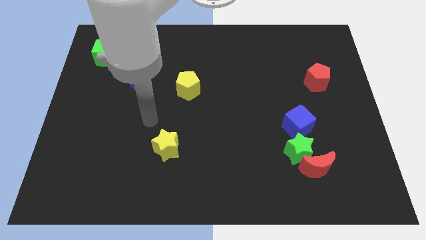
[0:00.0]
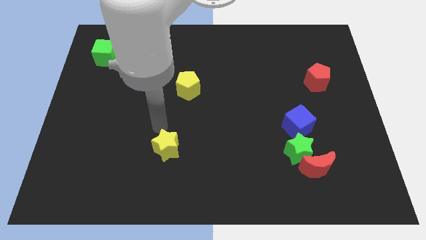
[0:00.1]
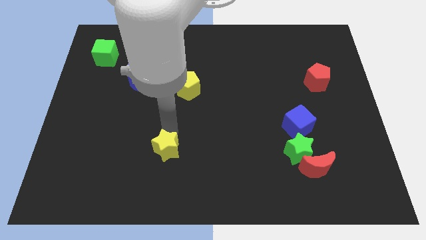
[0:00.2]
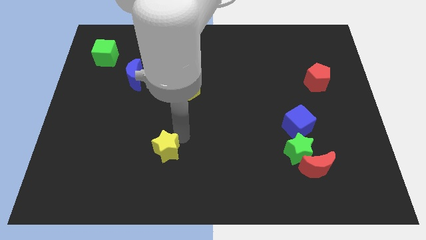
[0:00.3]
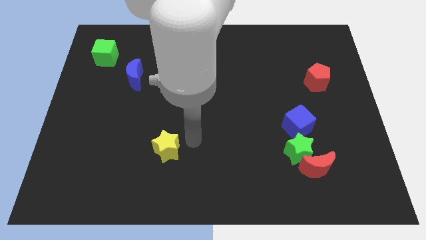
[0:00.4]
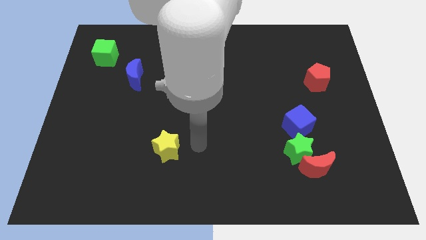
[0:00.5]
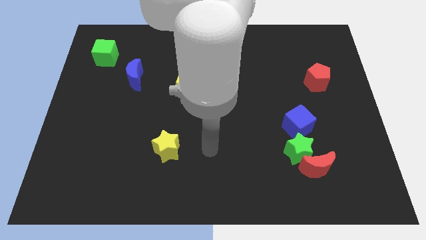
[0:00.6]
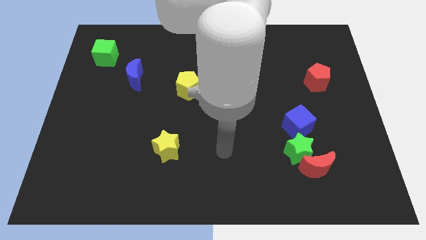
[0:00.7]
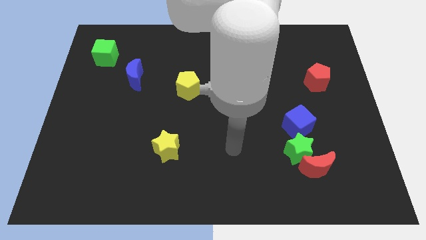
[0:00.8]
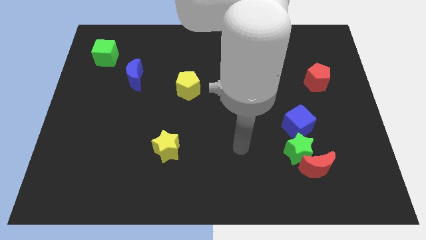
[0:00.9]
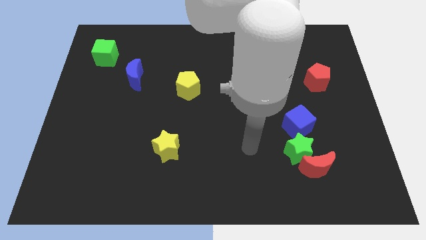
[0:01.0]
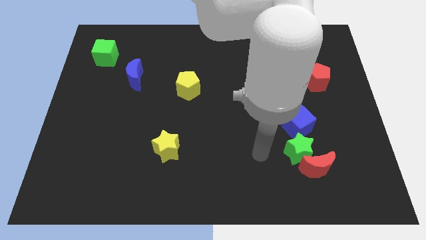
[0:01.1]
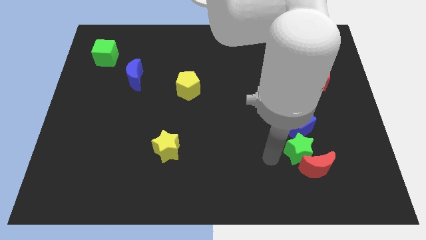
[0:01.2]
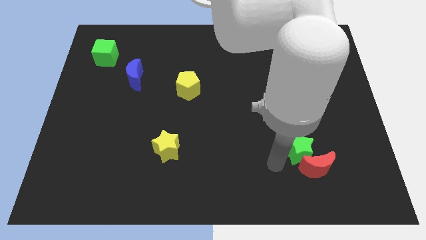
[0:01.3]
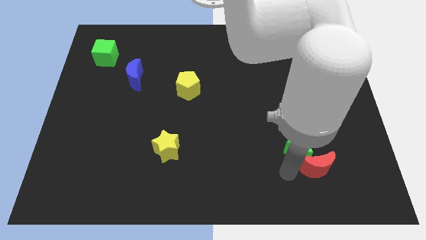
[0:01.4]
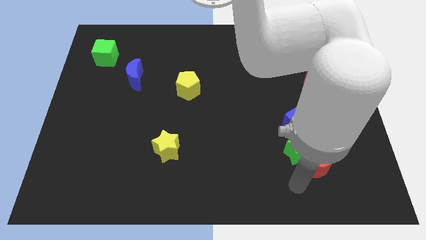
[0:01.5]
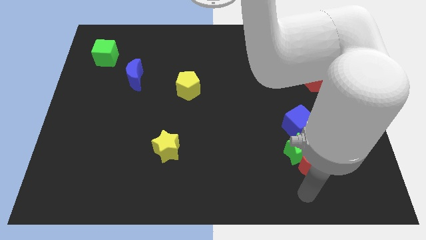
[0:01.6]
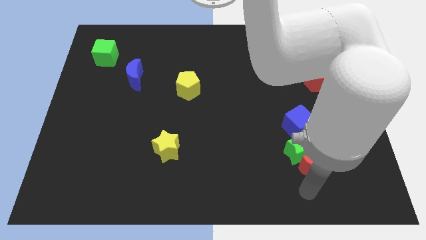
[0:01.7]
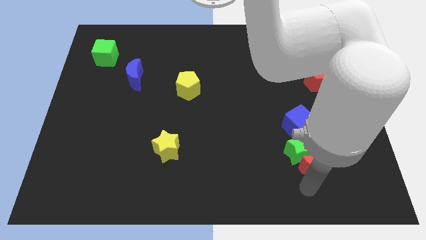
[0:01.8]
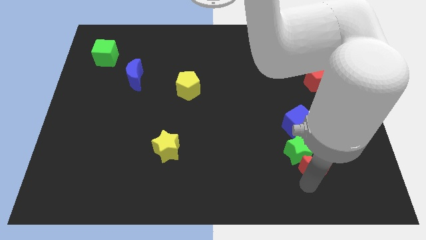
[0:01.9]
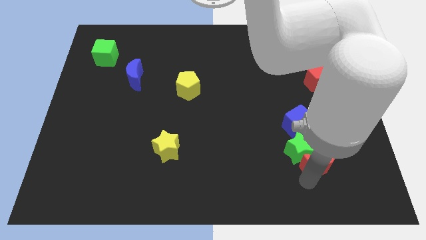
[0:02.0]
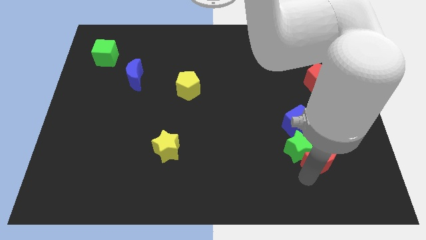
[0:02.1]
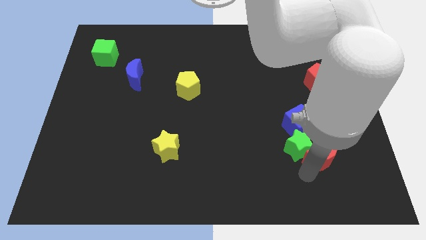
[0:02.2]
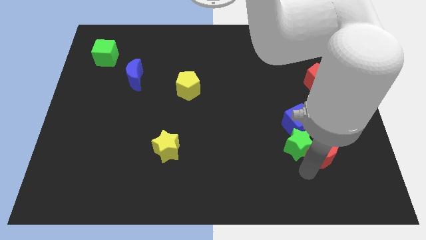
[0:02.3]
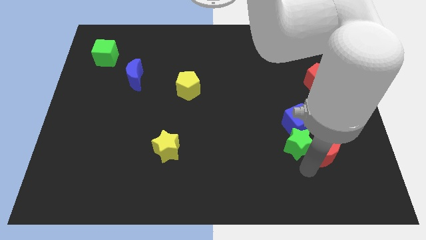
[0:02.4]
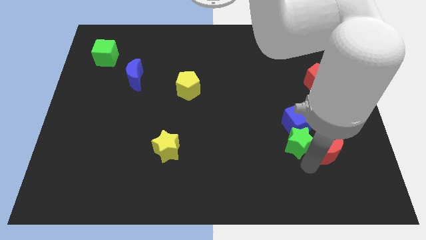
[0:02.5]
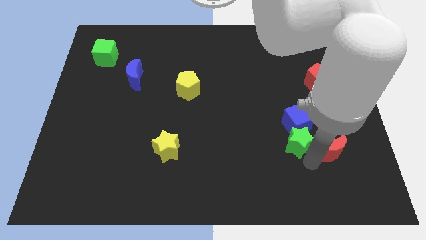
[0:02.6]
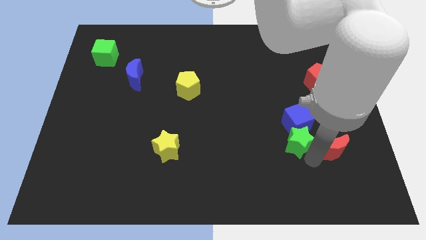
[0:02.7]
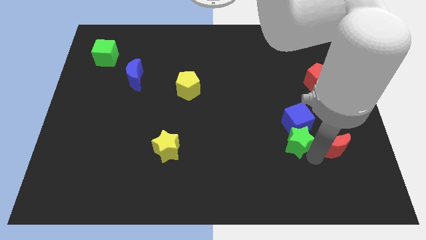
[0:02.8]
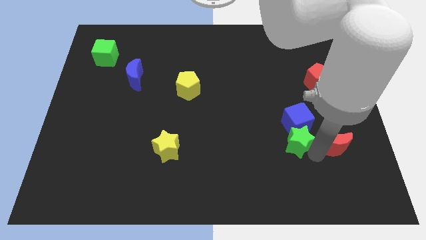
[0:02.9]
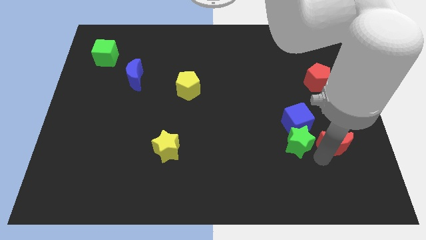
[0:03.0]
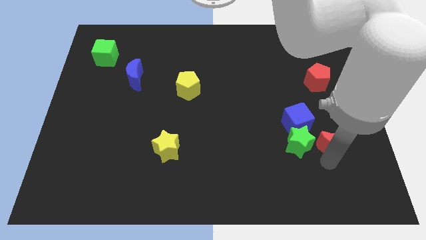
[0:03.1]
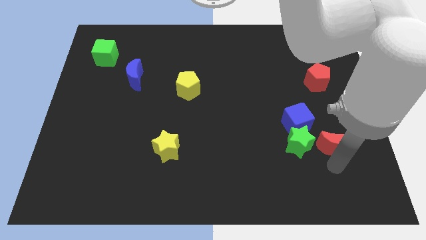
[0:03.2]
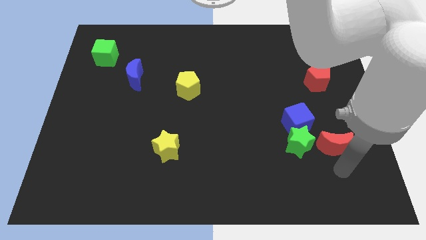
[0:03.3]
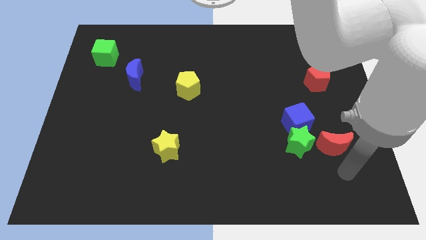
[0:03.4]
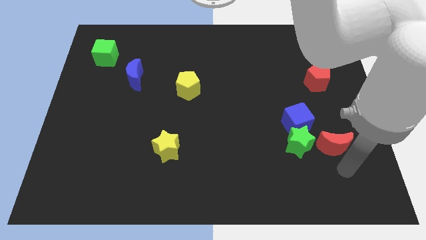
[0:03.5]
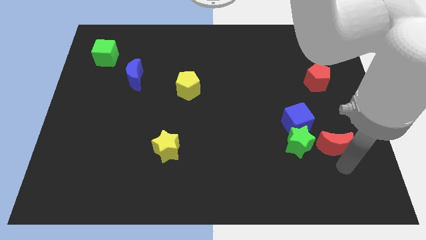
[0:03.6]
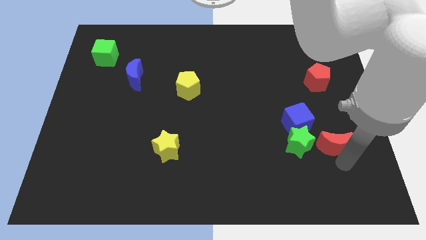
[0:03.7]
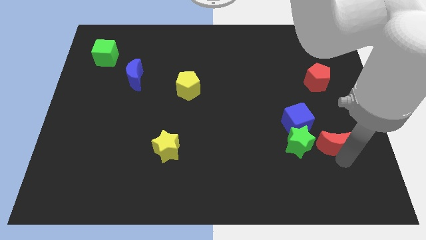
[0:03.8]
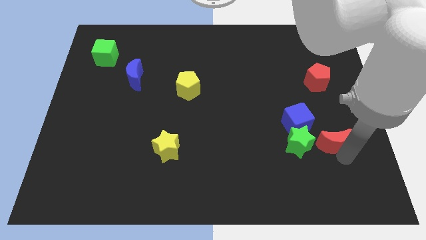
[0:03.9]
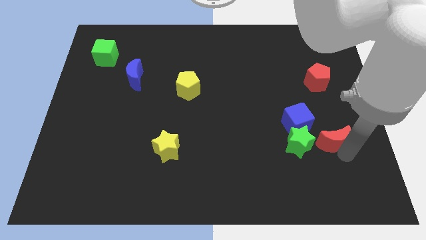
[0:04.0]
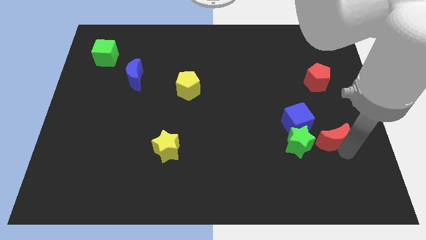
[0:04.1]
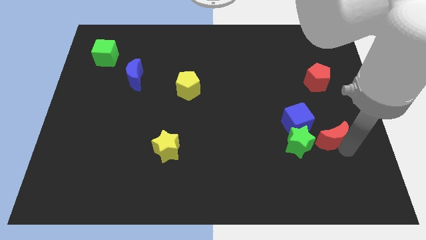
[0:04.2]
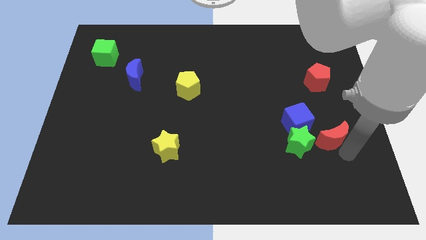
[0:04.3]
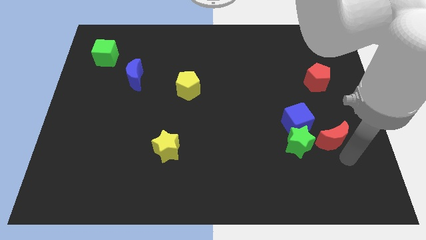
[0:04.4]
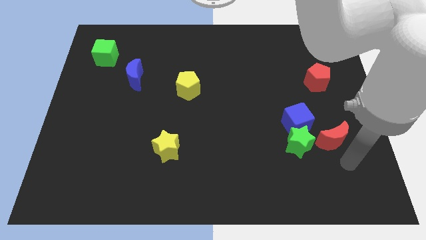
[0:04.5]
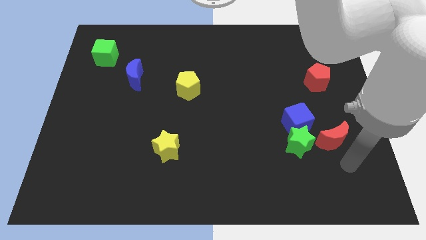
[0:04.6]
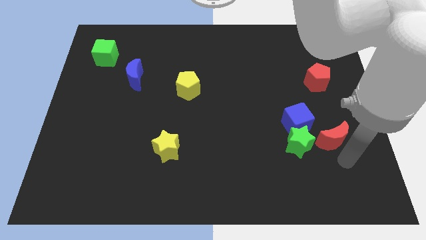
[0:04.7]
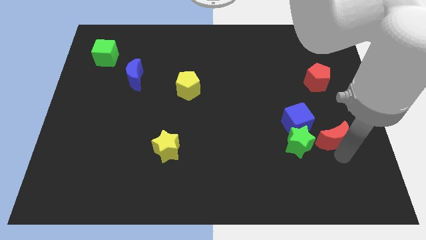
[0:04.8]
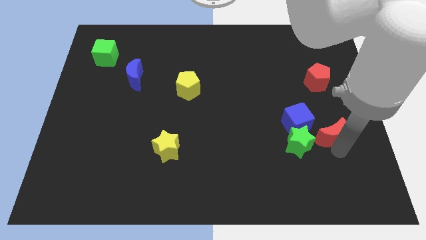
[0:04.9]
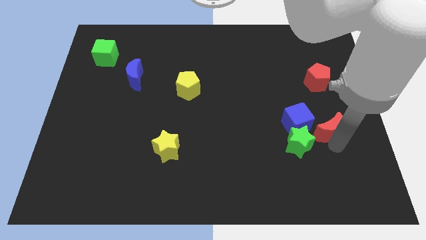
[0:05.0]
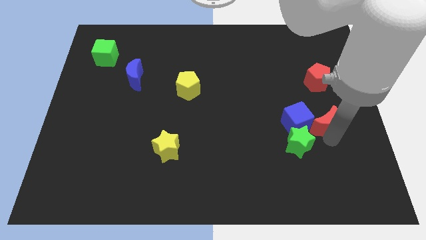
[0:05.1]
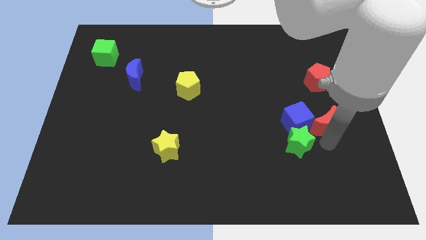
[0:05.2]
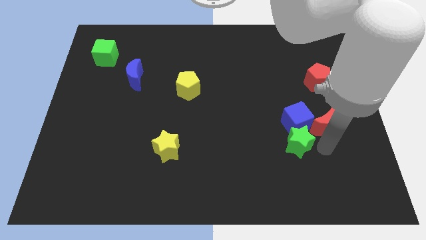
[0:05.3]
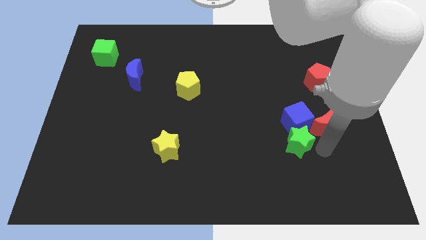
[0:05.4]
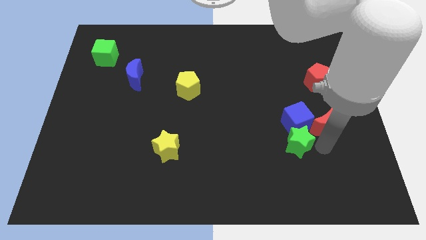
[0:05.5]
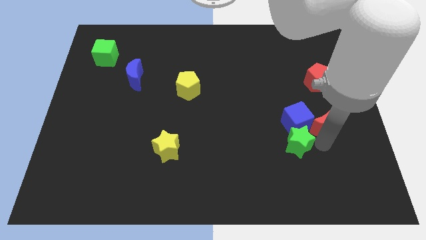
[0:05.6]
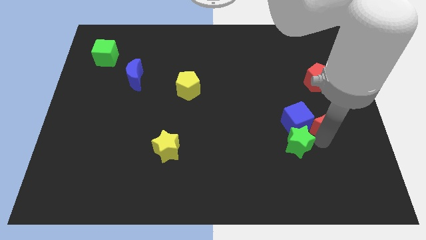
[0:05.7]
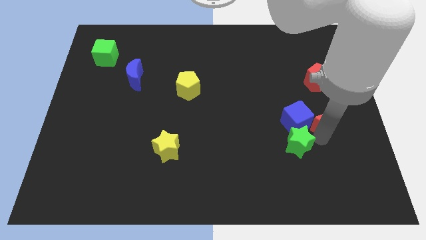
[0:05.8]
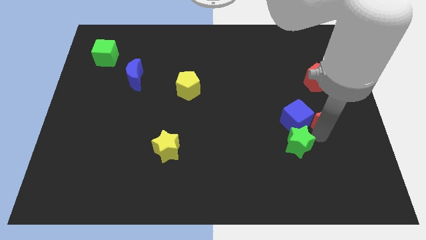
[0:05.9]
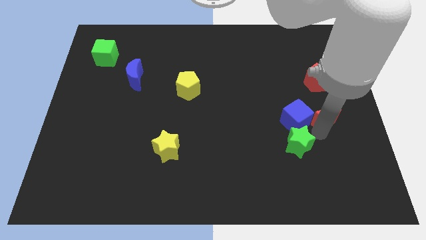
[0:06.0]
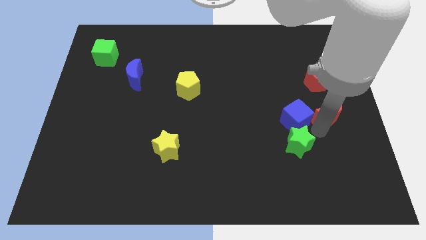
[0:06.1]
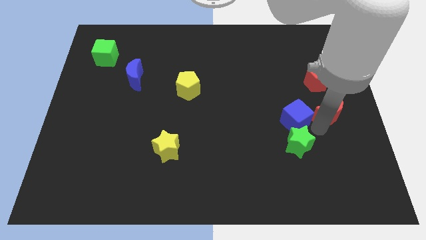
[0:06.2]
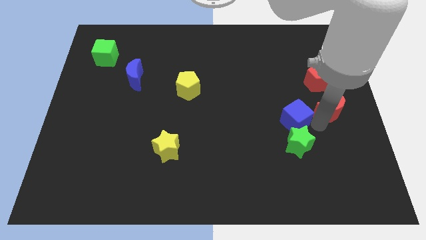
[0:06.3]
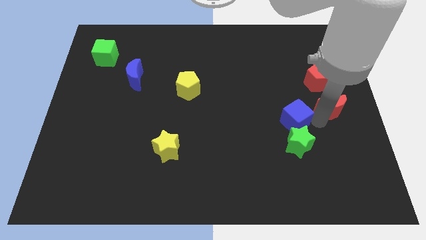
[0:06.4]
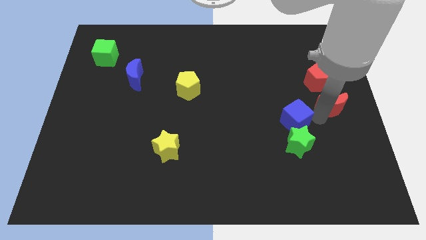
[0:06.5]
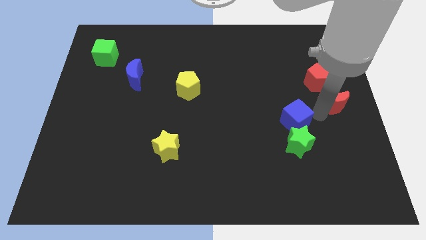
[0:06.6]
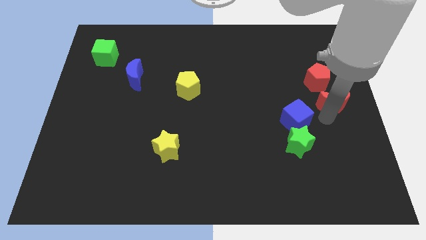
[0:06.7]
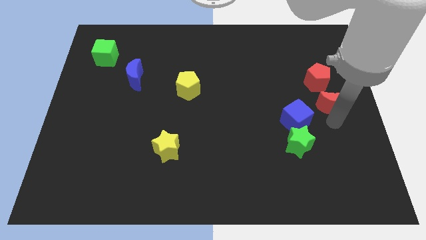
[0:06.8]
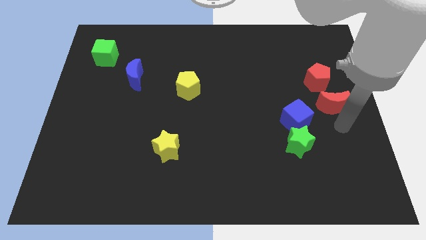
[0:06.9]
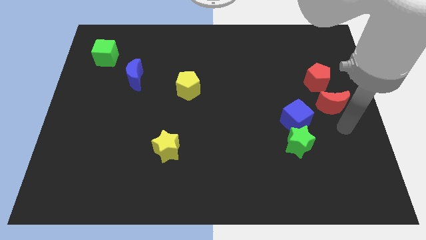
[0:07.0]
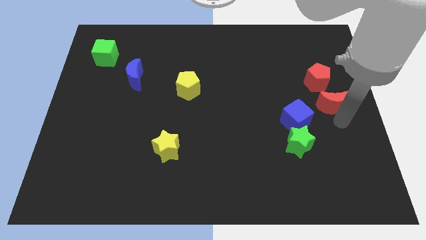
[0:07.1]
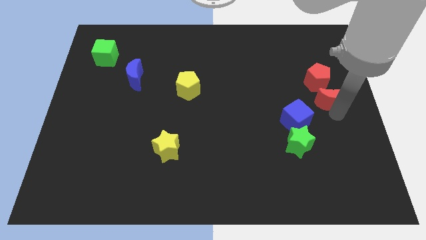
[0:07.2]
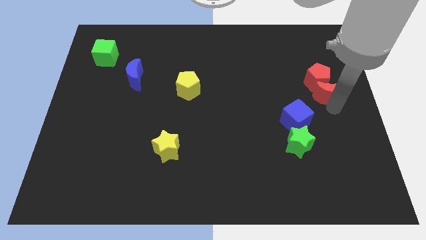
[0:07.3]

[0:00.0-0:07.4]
move the red moon next to the red pentagon

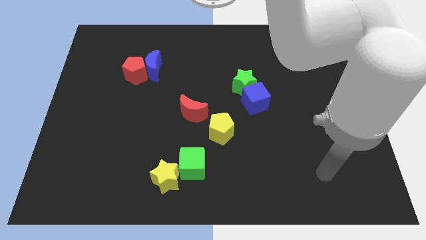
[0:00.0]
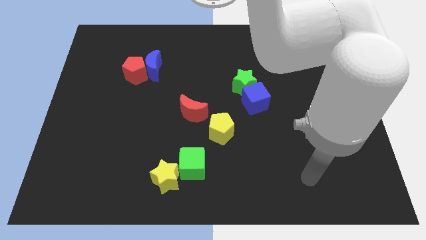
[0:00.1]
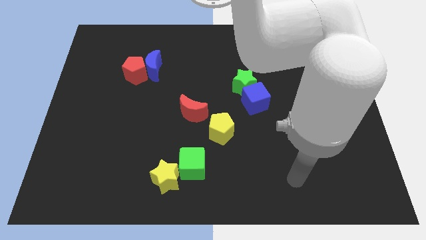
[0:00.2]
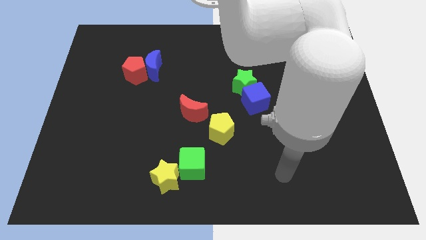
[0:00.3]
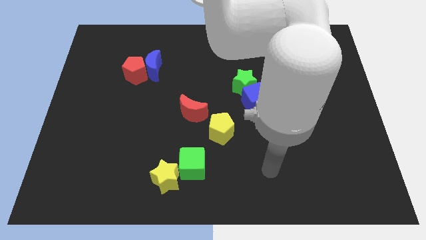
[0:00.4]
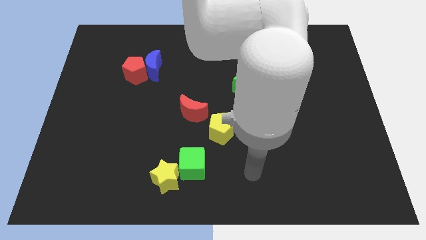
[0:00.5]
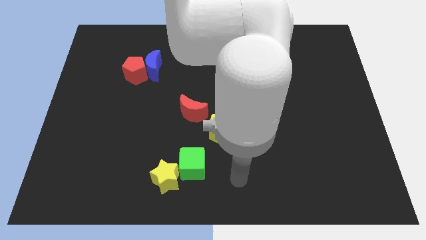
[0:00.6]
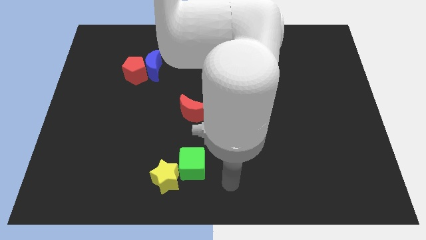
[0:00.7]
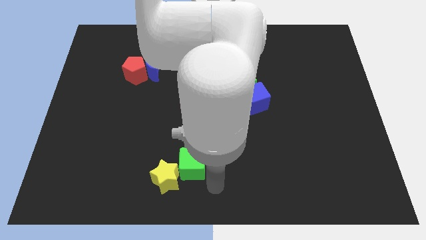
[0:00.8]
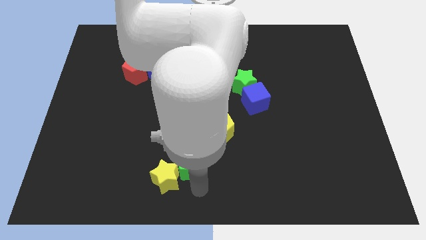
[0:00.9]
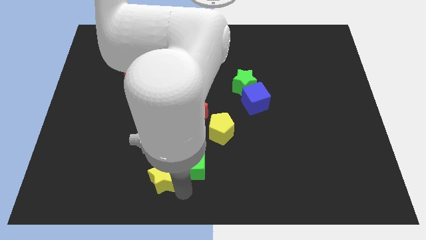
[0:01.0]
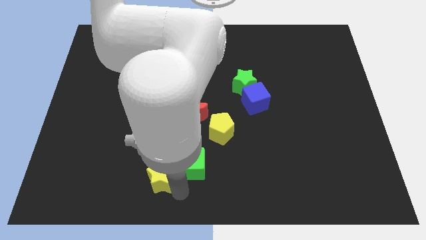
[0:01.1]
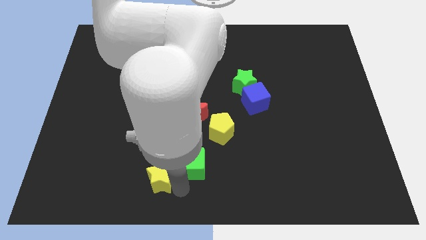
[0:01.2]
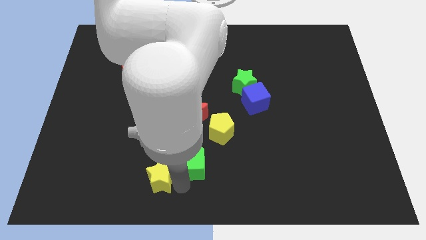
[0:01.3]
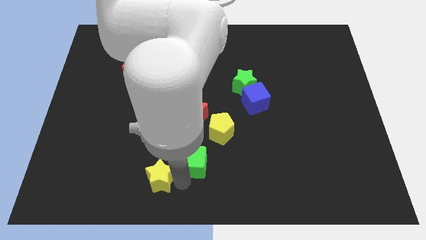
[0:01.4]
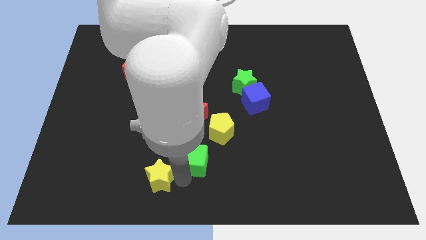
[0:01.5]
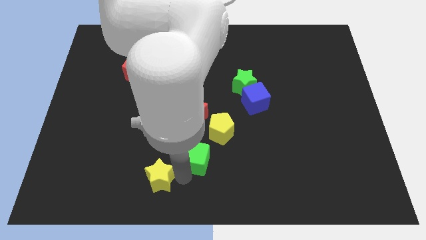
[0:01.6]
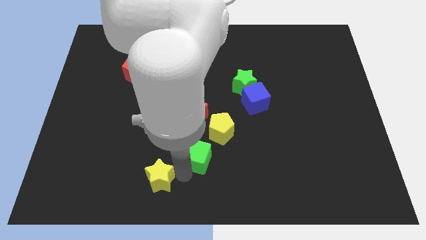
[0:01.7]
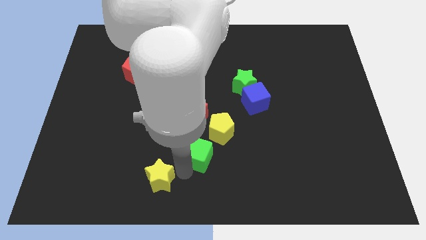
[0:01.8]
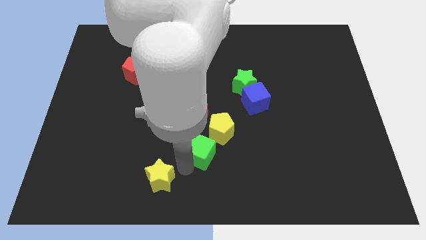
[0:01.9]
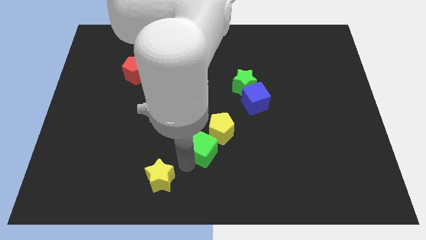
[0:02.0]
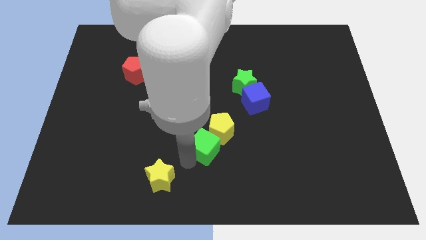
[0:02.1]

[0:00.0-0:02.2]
slide the green cube towards the yellow pentagon
